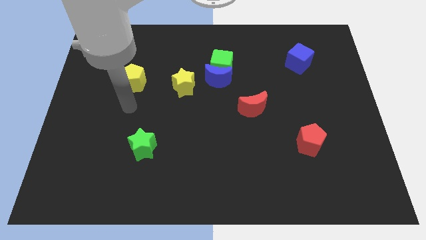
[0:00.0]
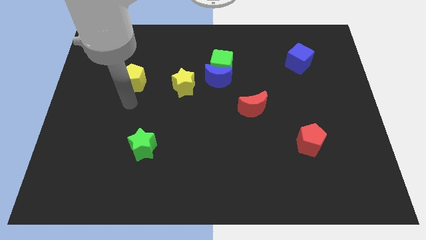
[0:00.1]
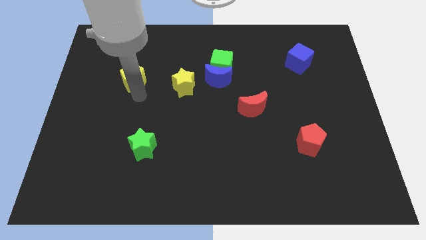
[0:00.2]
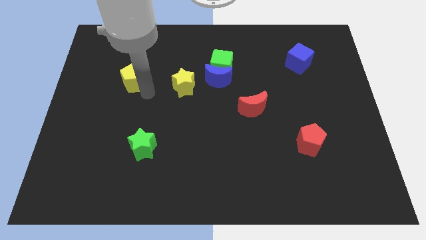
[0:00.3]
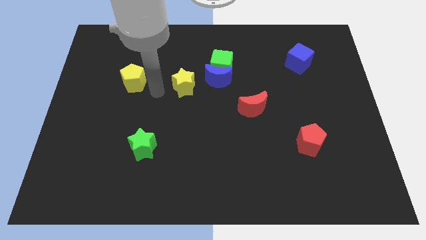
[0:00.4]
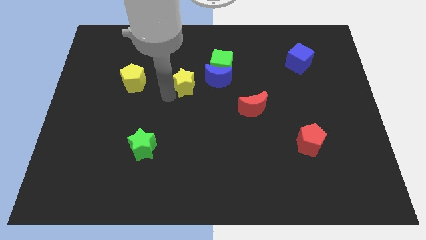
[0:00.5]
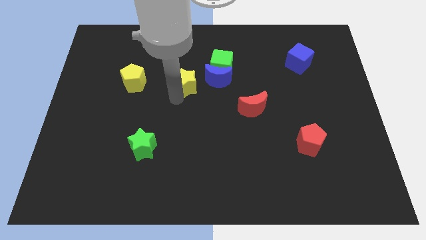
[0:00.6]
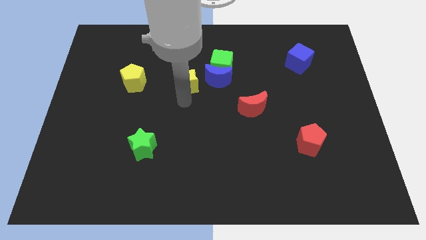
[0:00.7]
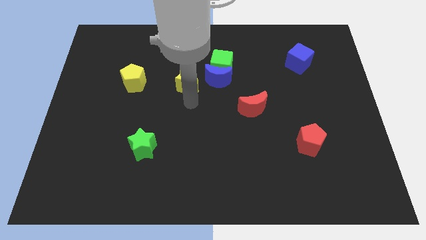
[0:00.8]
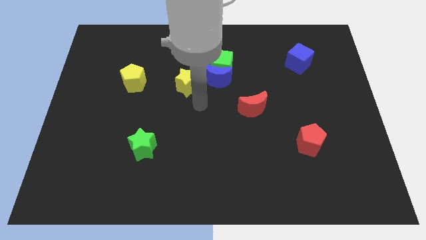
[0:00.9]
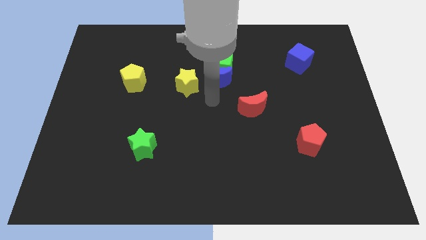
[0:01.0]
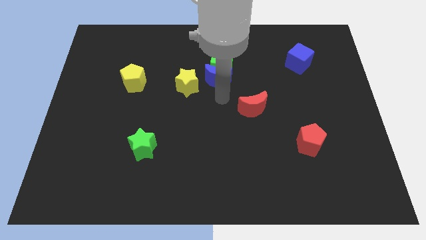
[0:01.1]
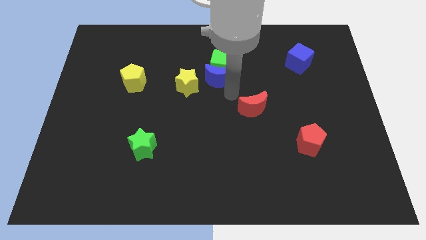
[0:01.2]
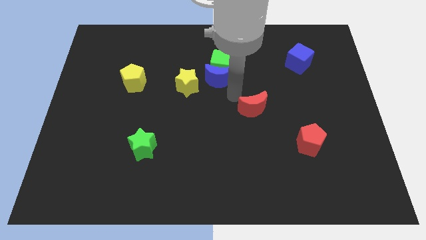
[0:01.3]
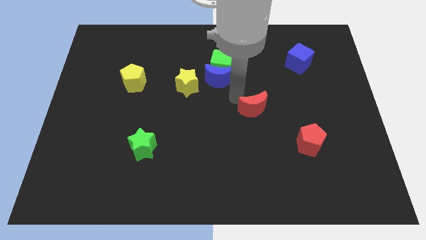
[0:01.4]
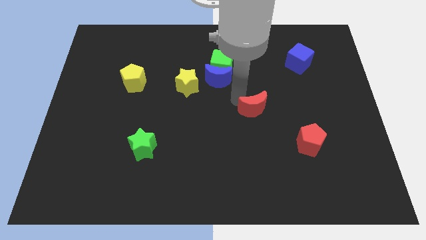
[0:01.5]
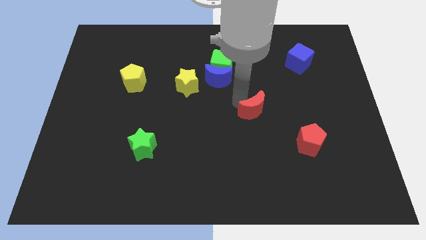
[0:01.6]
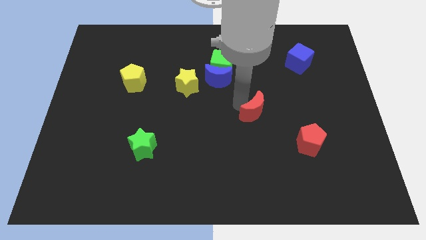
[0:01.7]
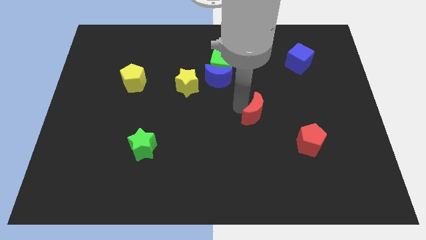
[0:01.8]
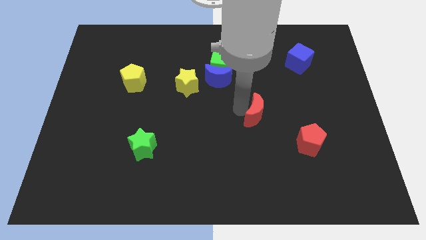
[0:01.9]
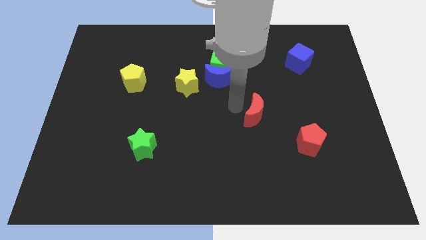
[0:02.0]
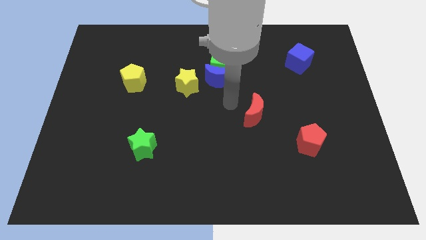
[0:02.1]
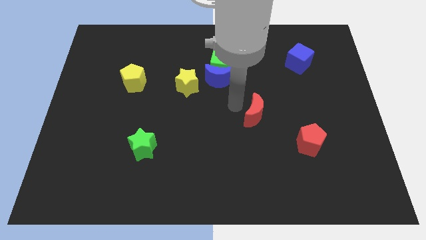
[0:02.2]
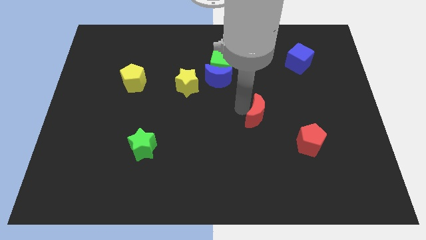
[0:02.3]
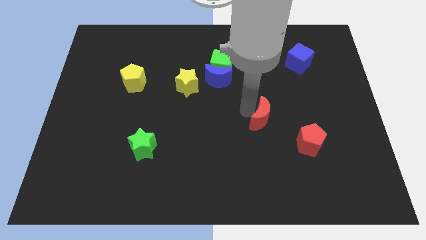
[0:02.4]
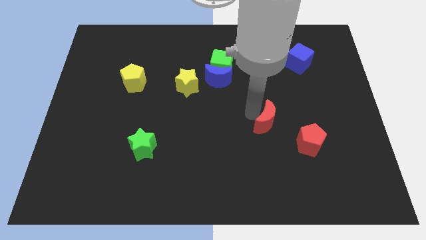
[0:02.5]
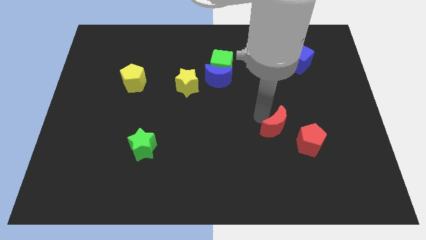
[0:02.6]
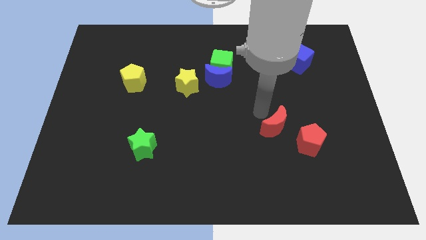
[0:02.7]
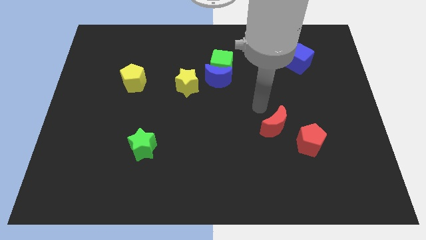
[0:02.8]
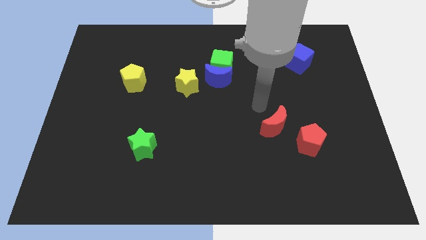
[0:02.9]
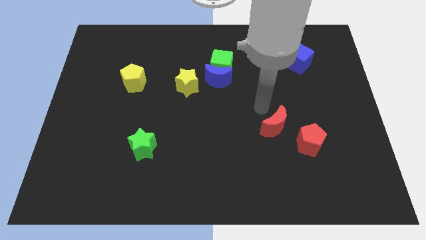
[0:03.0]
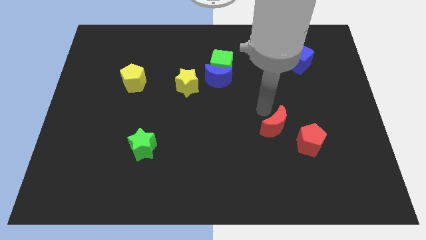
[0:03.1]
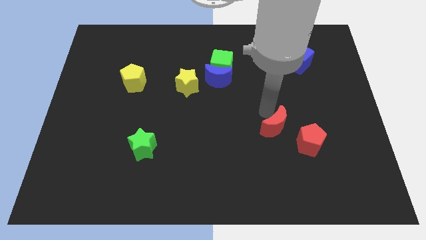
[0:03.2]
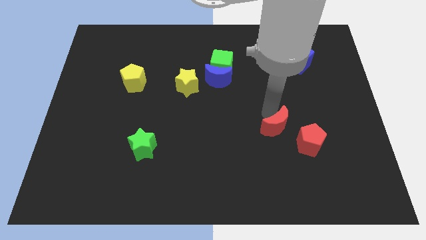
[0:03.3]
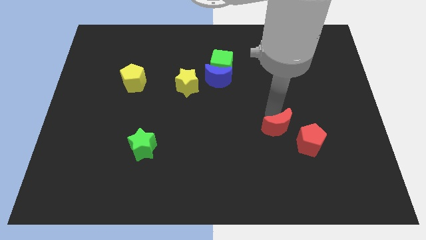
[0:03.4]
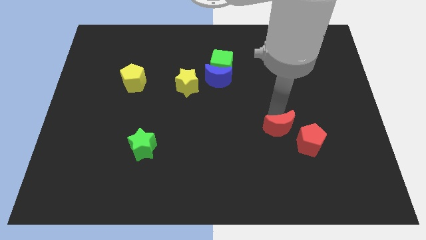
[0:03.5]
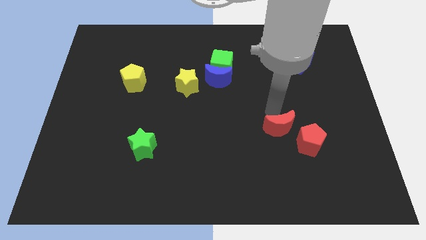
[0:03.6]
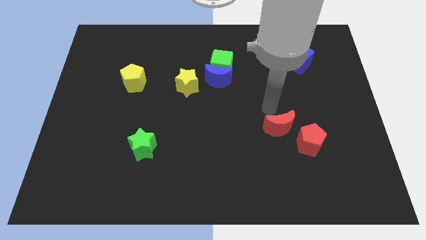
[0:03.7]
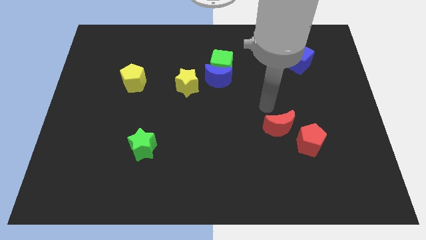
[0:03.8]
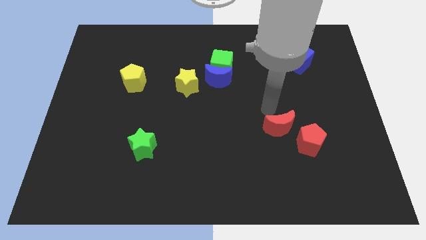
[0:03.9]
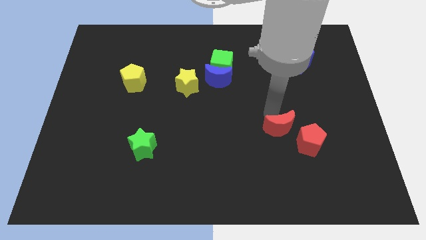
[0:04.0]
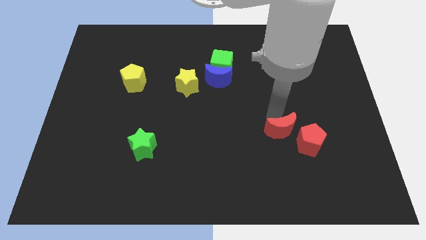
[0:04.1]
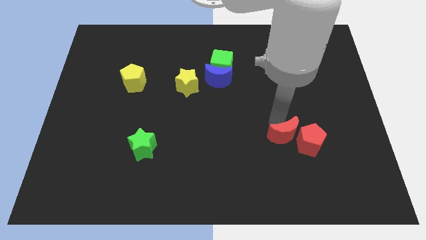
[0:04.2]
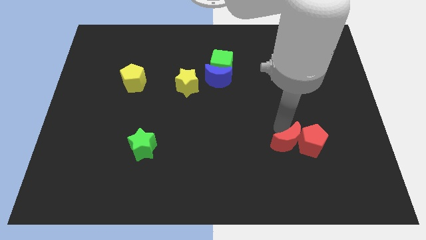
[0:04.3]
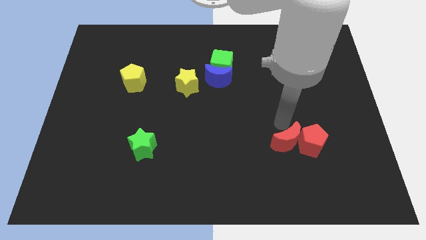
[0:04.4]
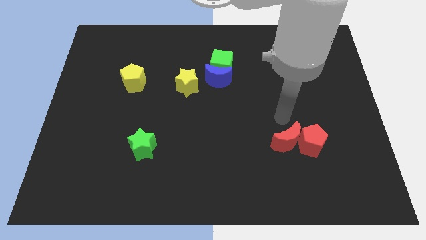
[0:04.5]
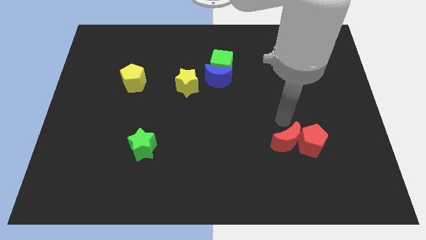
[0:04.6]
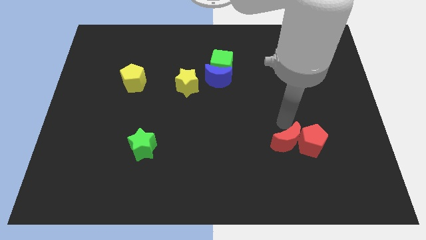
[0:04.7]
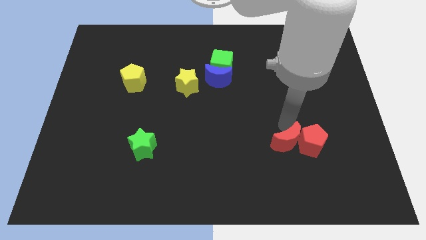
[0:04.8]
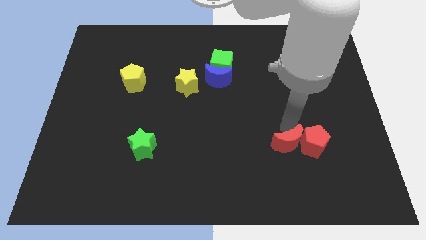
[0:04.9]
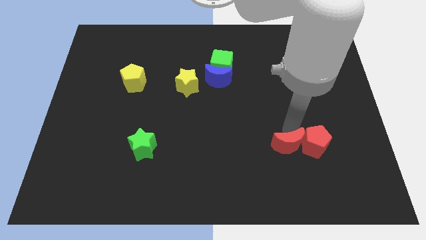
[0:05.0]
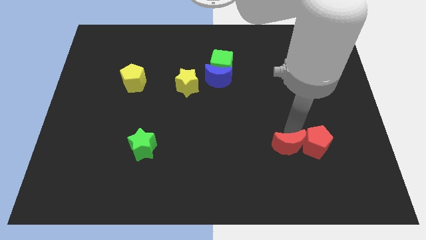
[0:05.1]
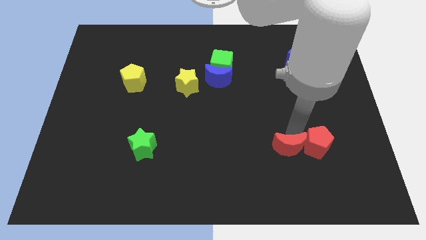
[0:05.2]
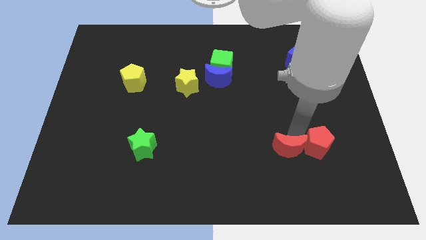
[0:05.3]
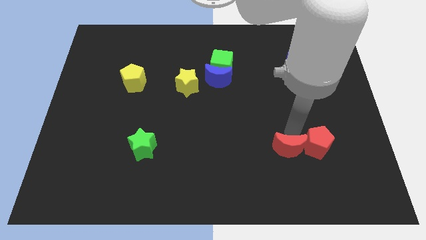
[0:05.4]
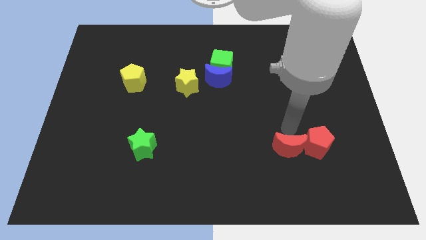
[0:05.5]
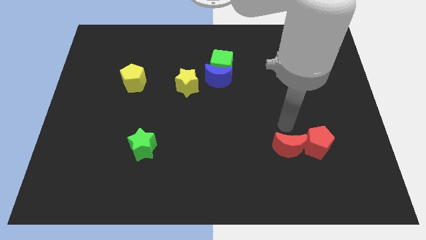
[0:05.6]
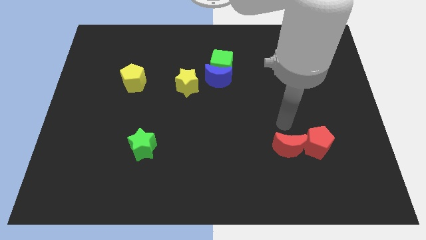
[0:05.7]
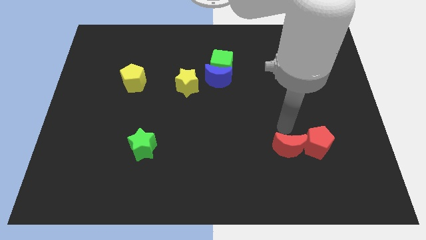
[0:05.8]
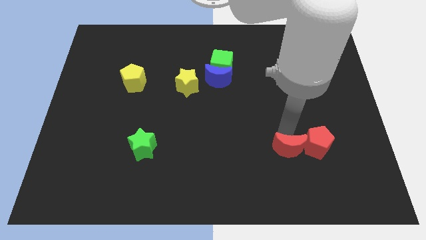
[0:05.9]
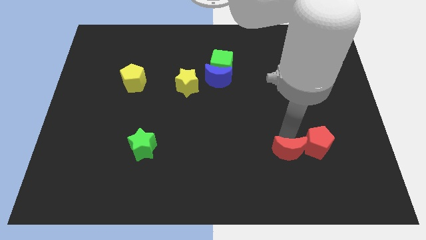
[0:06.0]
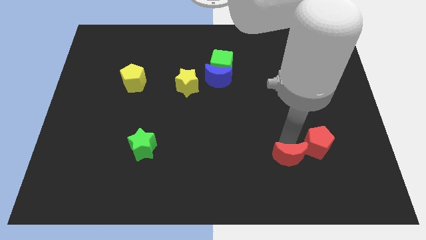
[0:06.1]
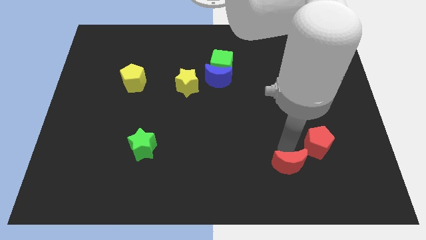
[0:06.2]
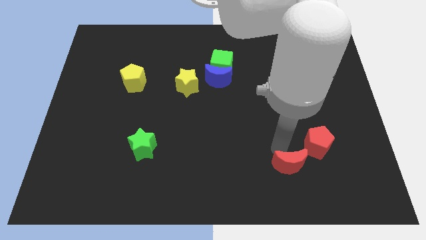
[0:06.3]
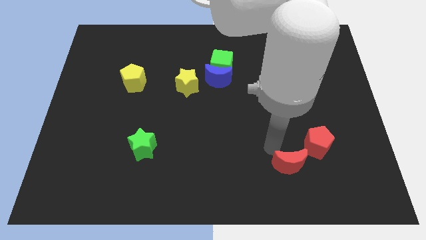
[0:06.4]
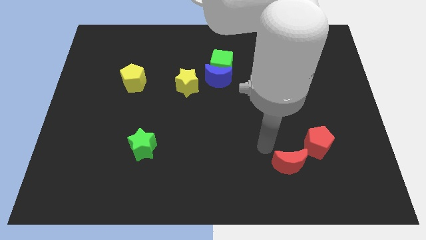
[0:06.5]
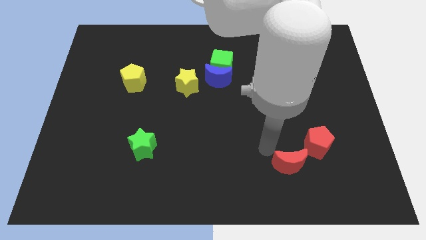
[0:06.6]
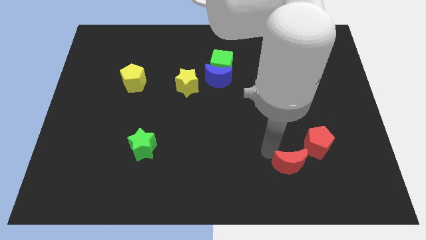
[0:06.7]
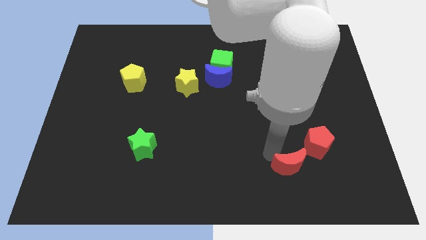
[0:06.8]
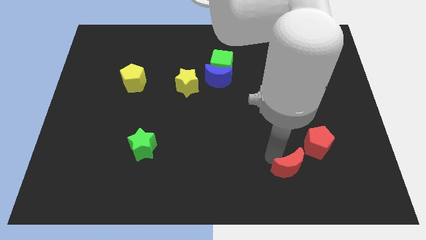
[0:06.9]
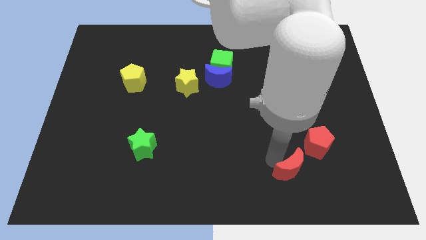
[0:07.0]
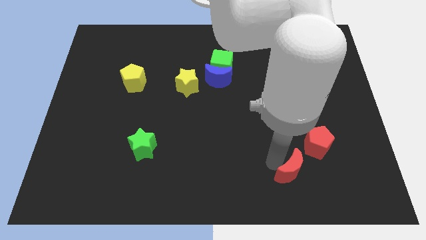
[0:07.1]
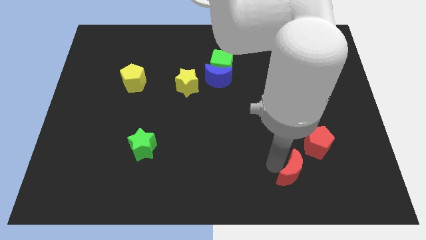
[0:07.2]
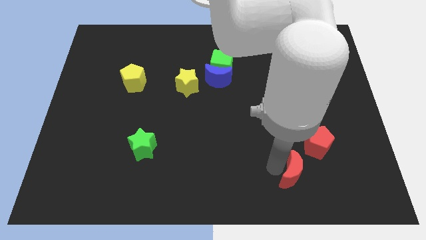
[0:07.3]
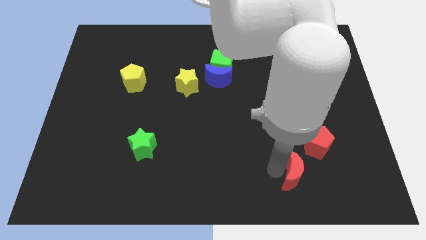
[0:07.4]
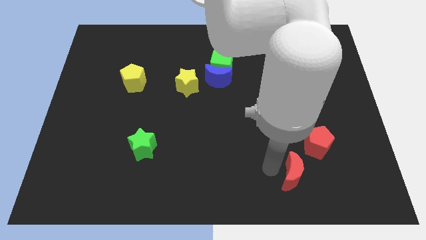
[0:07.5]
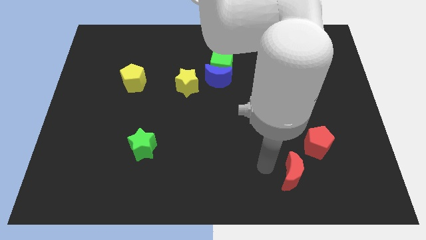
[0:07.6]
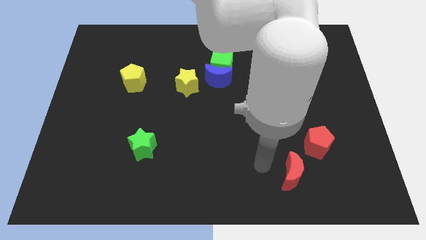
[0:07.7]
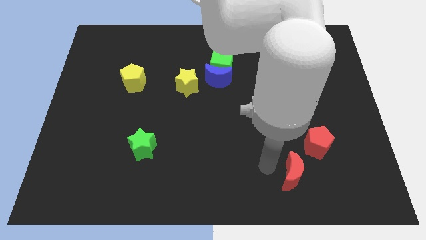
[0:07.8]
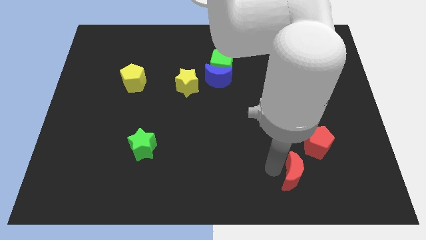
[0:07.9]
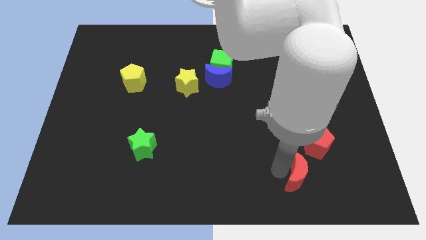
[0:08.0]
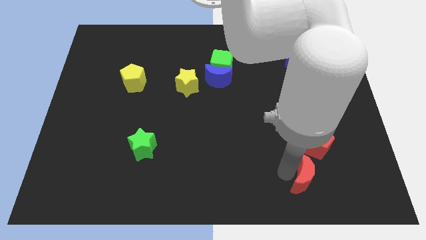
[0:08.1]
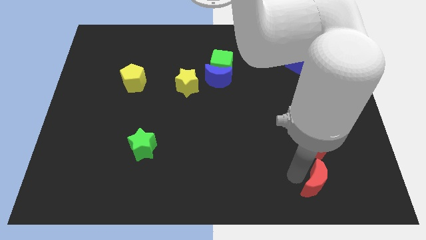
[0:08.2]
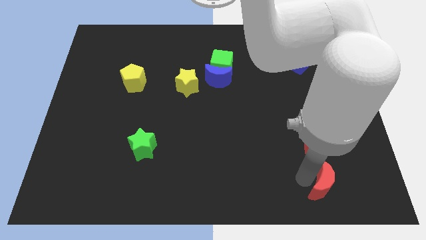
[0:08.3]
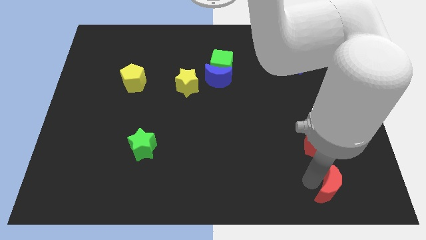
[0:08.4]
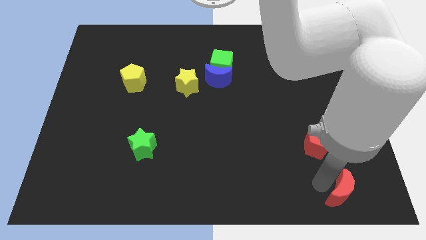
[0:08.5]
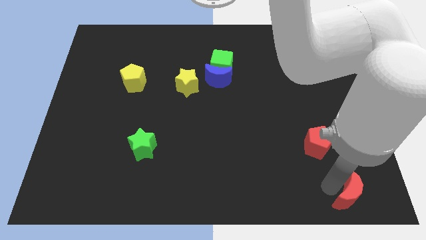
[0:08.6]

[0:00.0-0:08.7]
push the red moon to the bottom right corner
